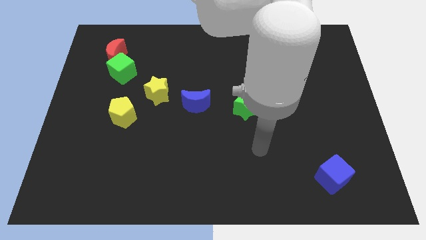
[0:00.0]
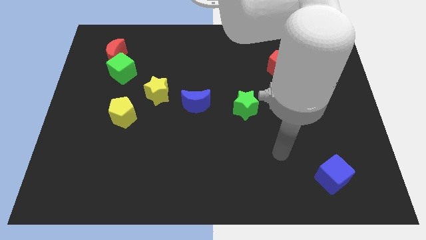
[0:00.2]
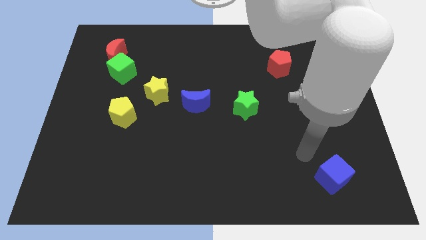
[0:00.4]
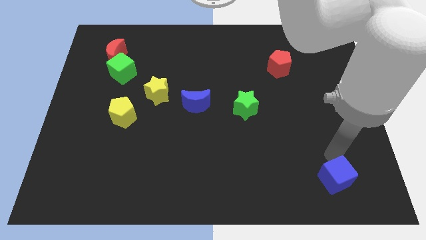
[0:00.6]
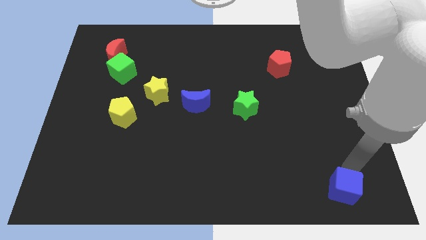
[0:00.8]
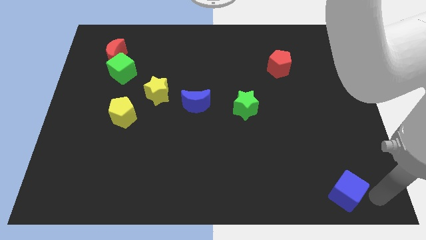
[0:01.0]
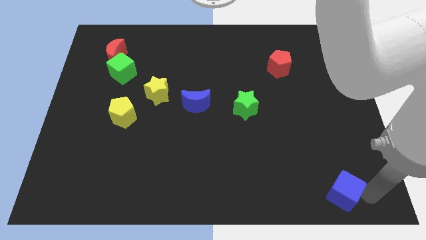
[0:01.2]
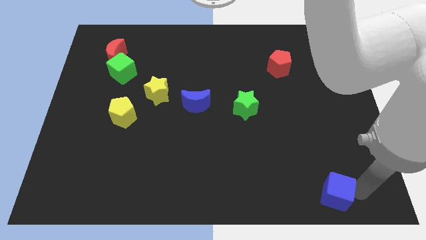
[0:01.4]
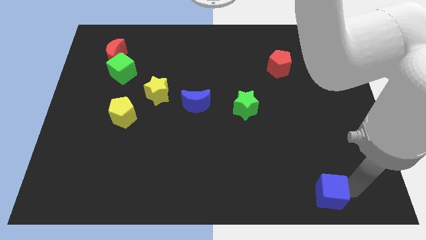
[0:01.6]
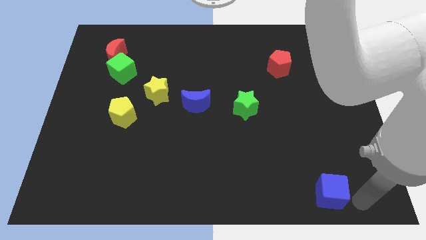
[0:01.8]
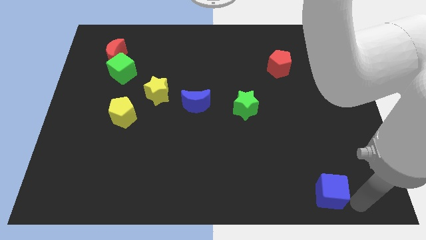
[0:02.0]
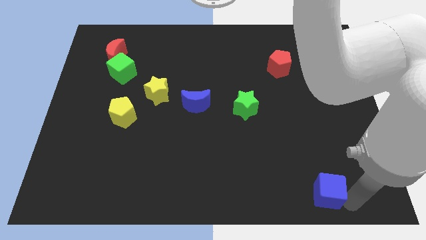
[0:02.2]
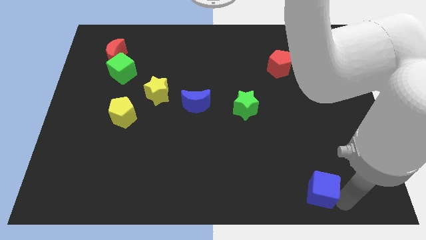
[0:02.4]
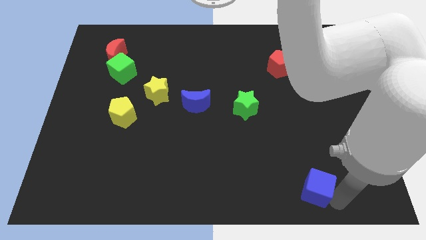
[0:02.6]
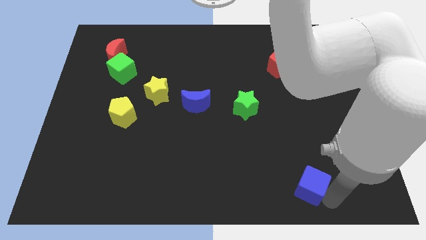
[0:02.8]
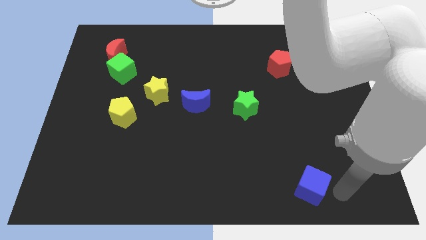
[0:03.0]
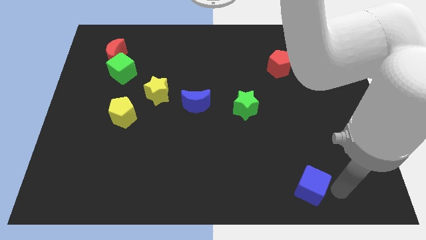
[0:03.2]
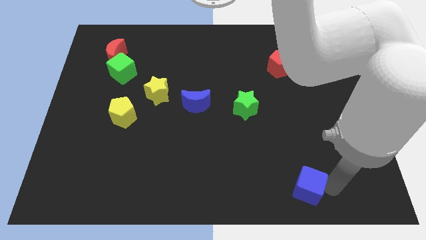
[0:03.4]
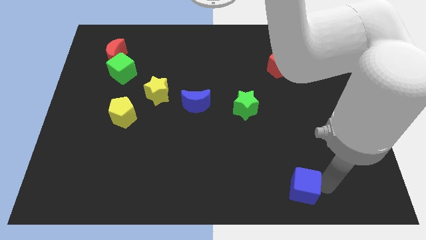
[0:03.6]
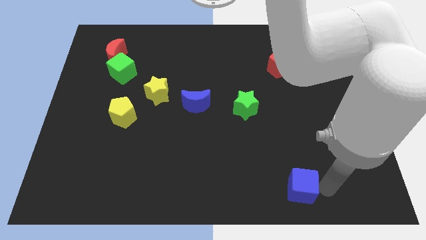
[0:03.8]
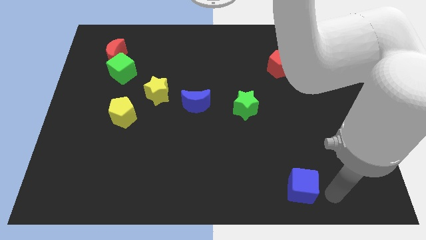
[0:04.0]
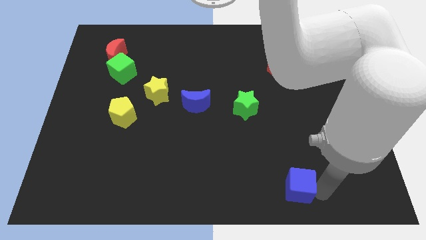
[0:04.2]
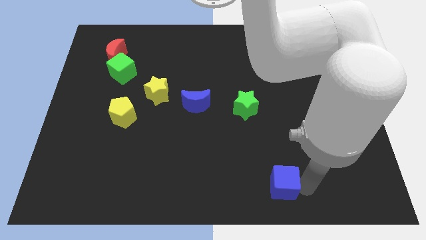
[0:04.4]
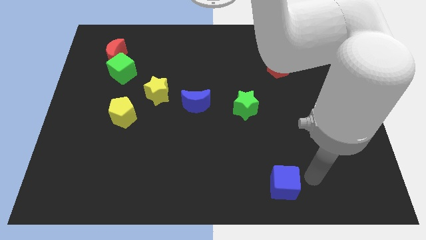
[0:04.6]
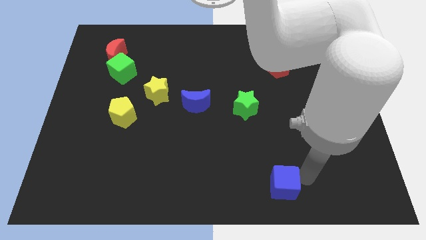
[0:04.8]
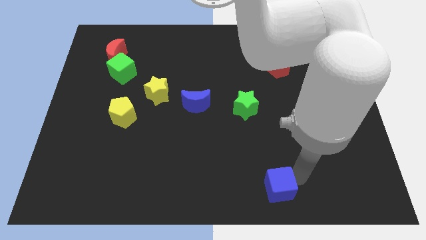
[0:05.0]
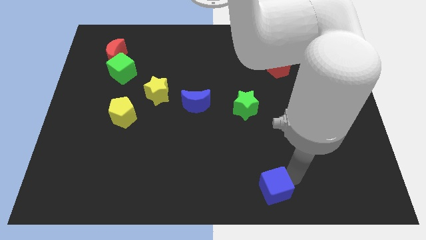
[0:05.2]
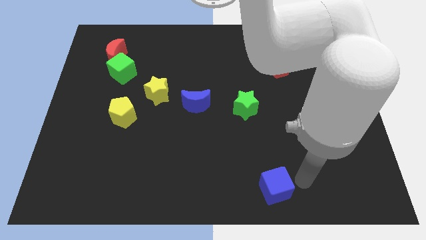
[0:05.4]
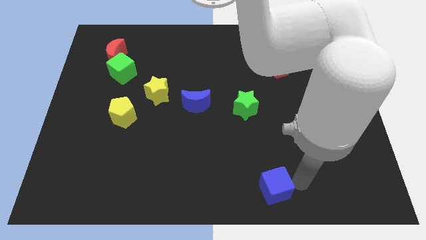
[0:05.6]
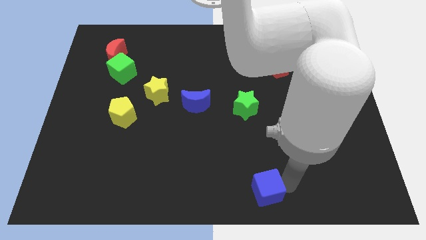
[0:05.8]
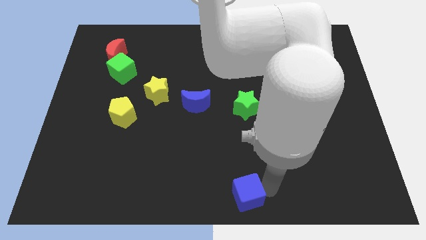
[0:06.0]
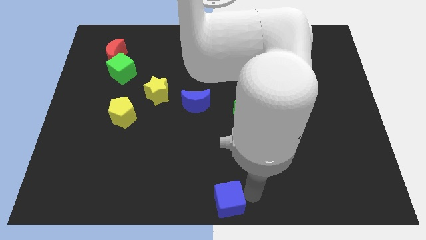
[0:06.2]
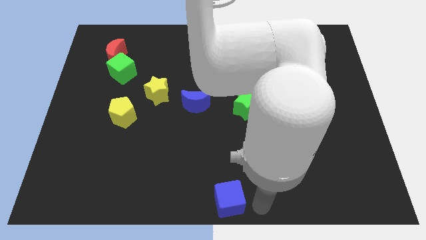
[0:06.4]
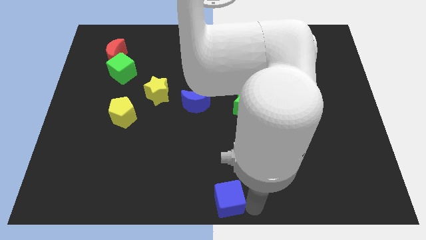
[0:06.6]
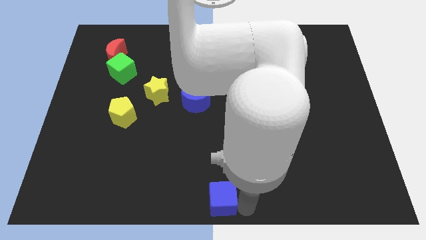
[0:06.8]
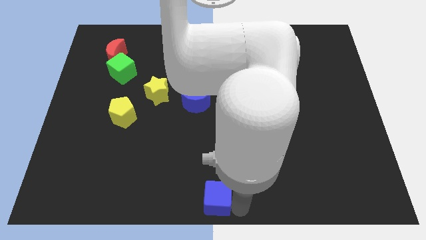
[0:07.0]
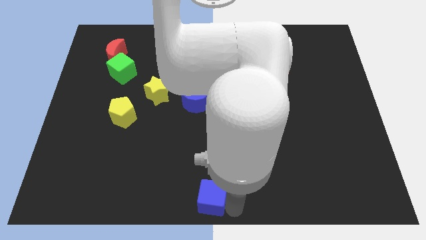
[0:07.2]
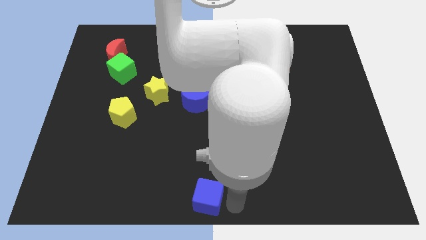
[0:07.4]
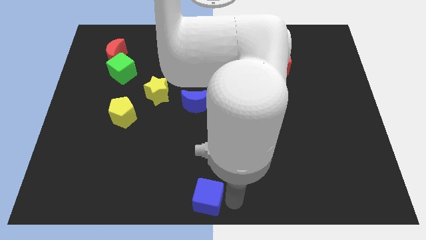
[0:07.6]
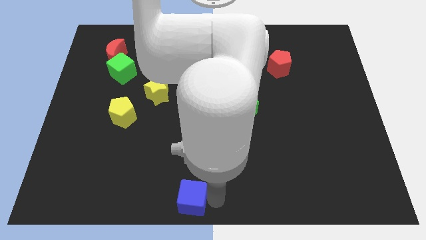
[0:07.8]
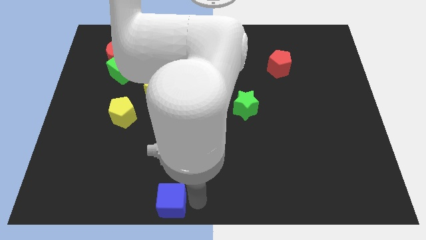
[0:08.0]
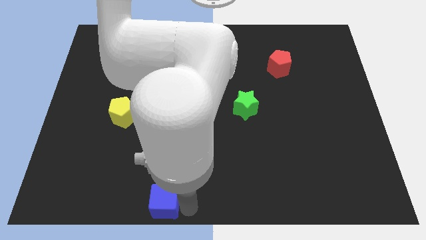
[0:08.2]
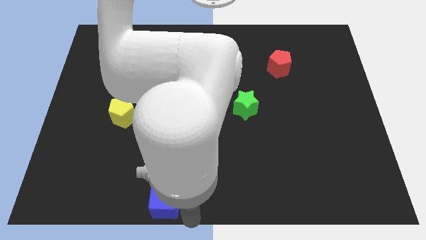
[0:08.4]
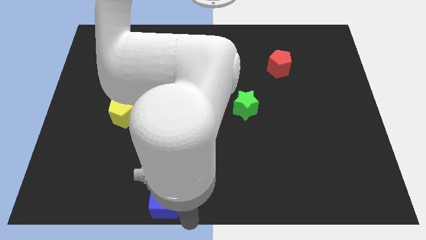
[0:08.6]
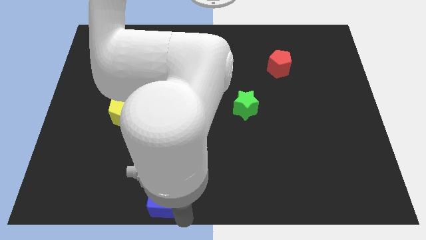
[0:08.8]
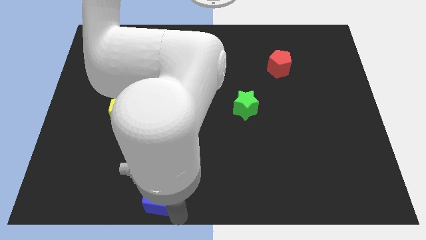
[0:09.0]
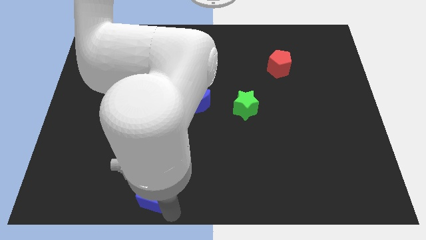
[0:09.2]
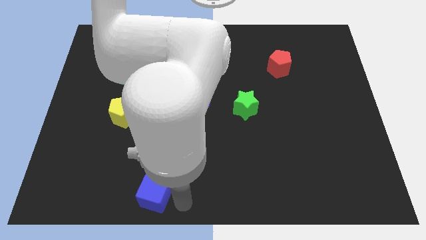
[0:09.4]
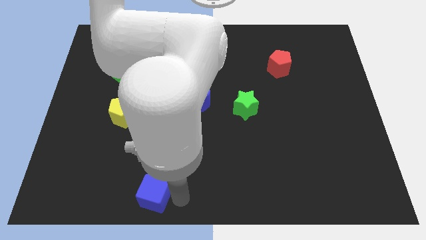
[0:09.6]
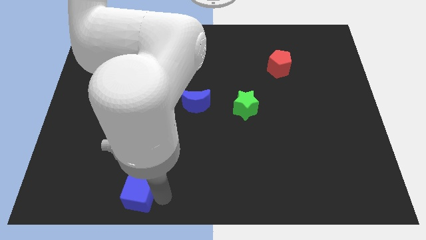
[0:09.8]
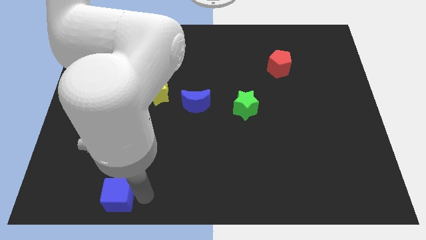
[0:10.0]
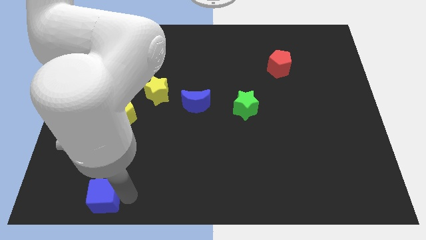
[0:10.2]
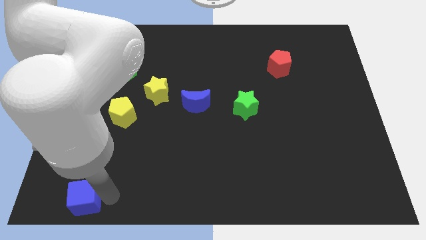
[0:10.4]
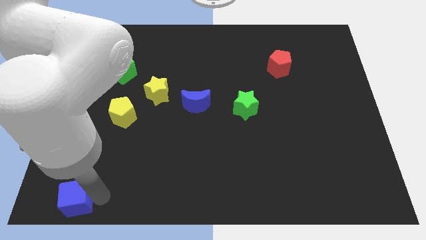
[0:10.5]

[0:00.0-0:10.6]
slide the blue cube to the lower left corner
